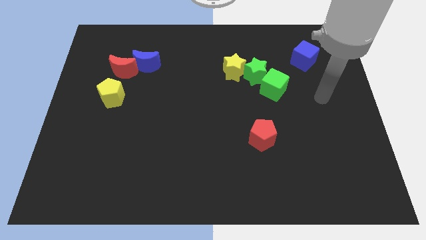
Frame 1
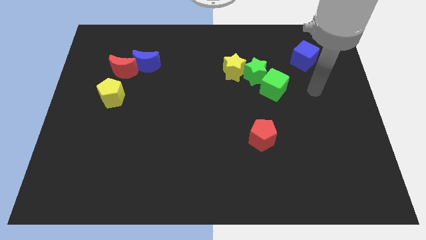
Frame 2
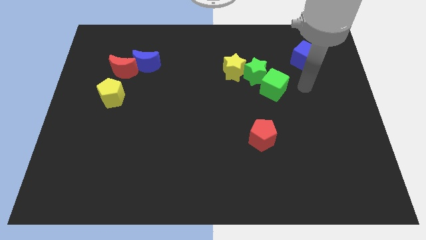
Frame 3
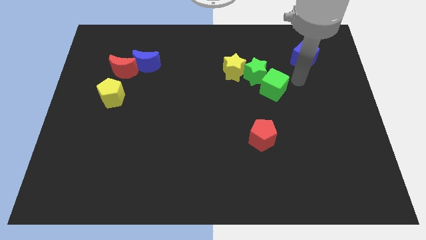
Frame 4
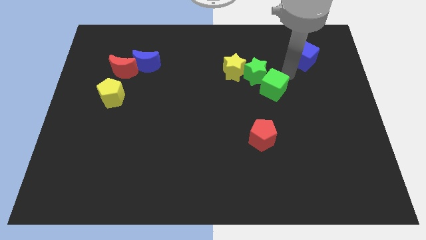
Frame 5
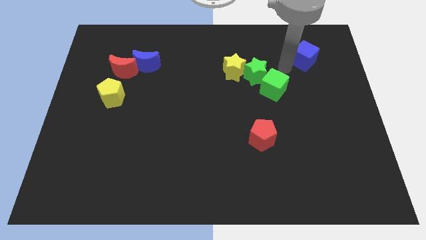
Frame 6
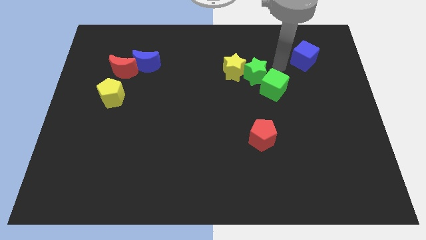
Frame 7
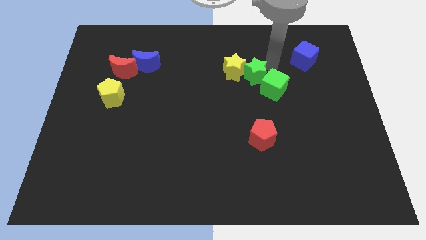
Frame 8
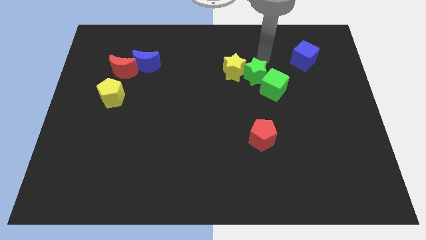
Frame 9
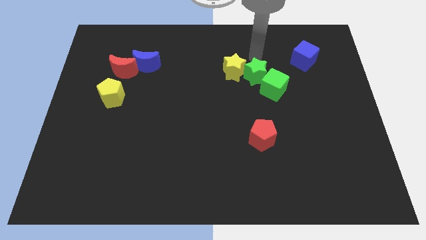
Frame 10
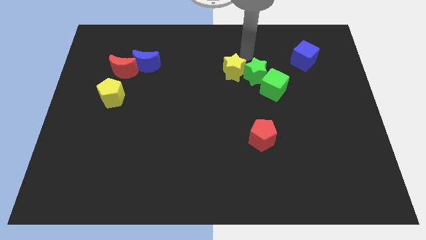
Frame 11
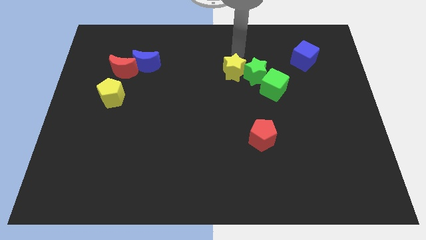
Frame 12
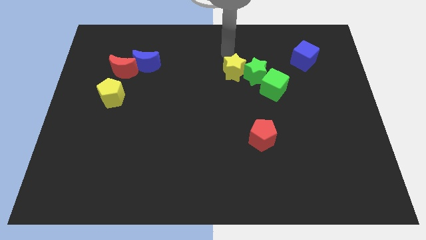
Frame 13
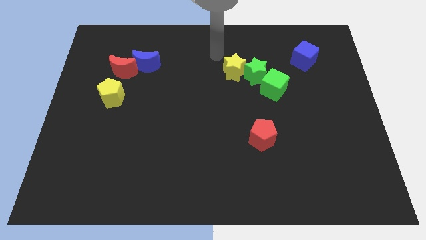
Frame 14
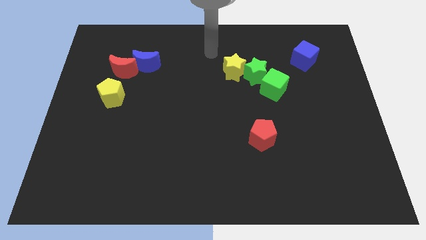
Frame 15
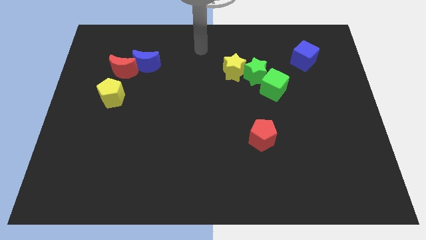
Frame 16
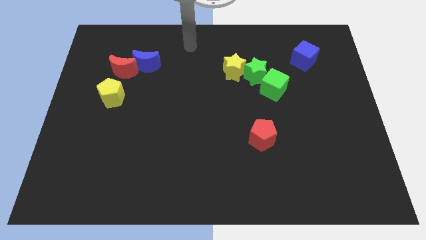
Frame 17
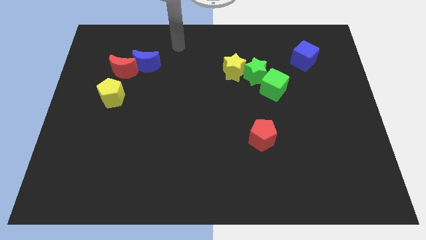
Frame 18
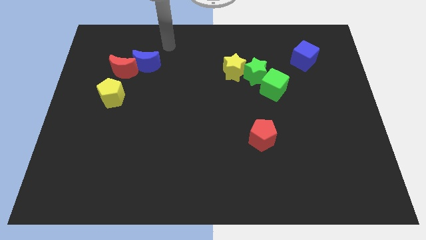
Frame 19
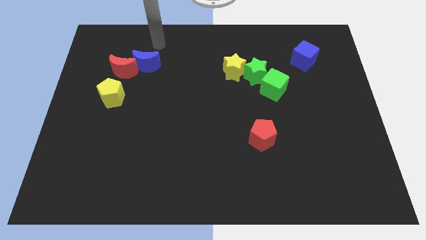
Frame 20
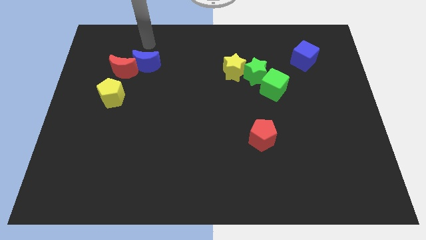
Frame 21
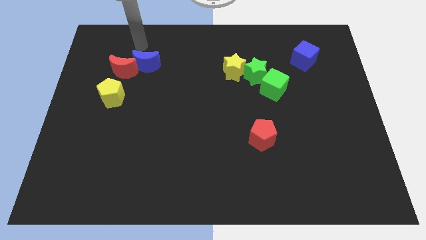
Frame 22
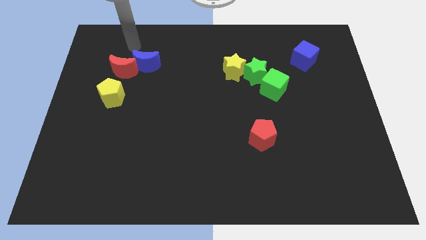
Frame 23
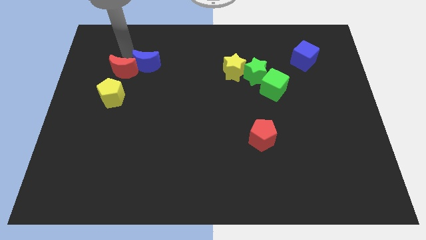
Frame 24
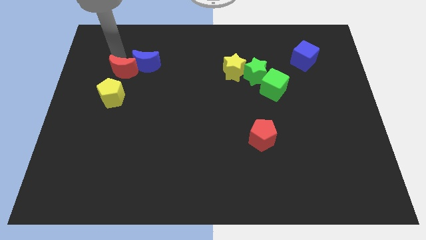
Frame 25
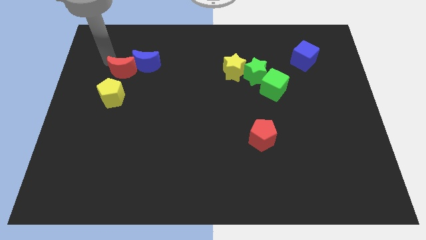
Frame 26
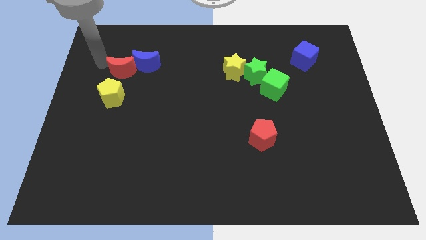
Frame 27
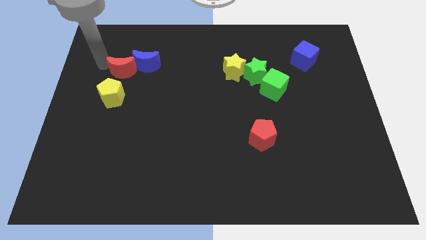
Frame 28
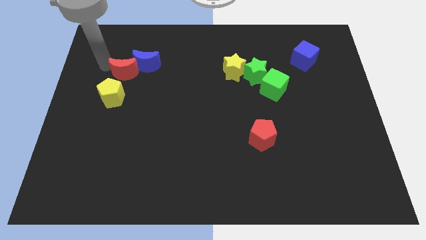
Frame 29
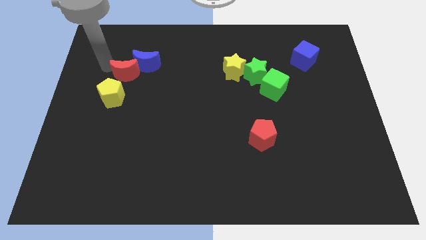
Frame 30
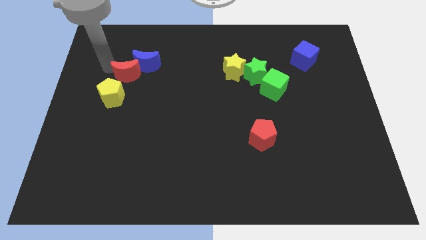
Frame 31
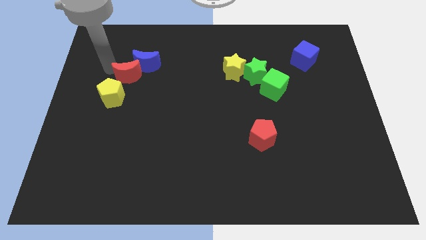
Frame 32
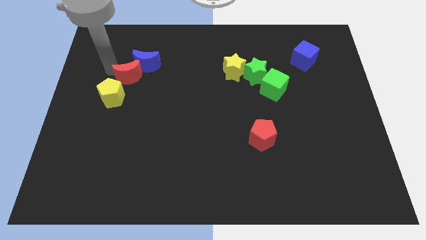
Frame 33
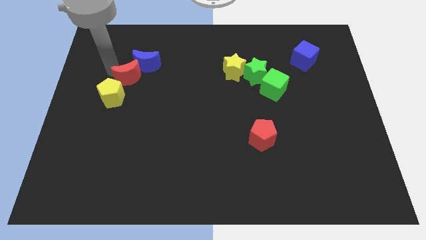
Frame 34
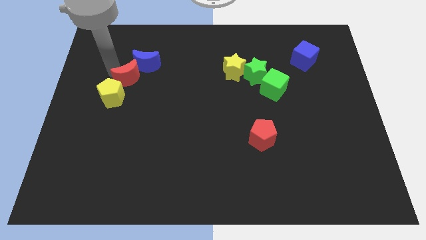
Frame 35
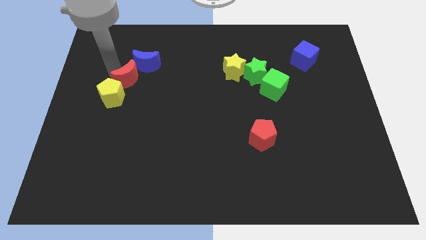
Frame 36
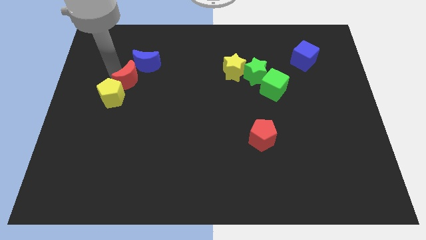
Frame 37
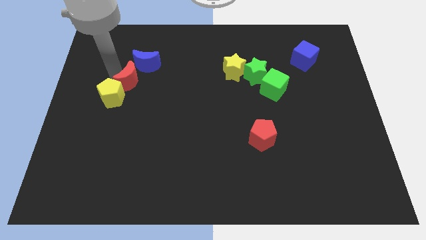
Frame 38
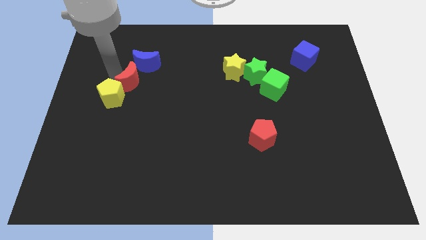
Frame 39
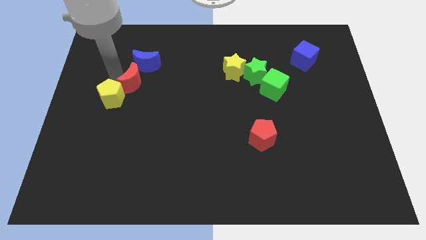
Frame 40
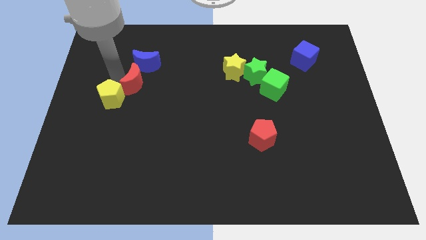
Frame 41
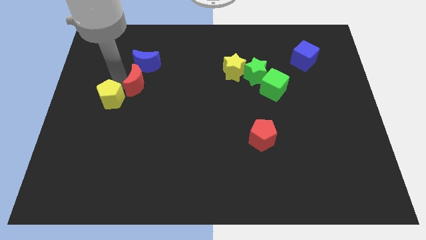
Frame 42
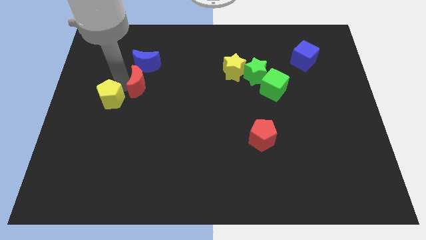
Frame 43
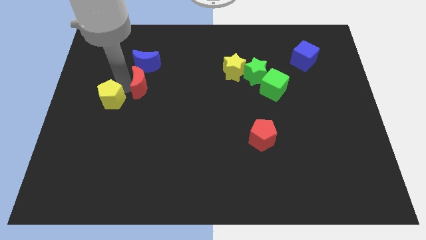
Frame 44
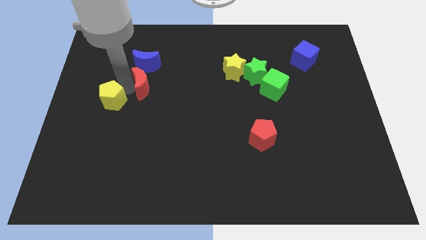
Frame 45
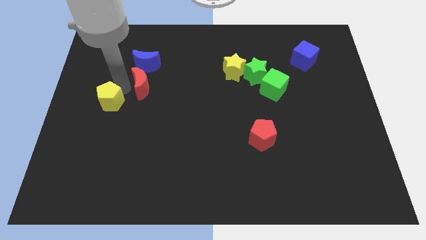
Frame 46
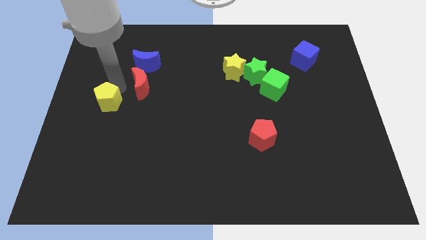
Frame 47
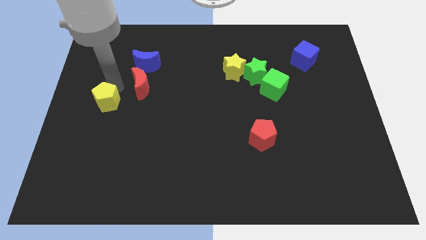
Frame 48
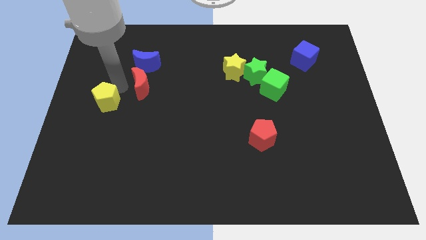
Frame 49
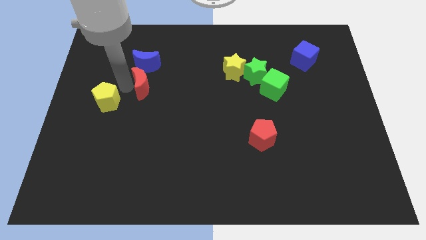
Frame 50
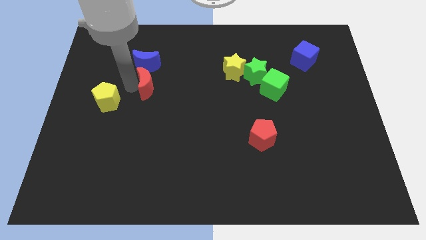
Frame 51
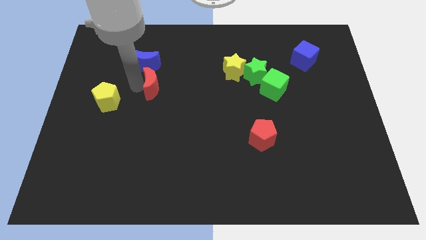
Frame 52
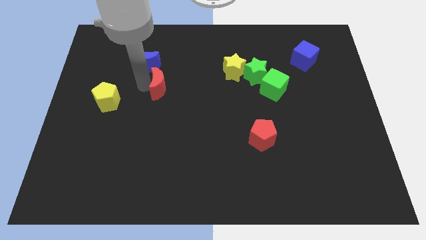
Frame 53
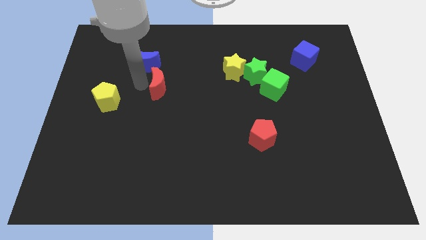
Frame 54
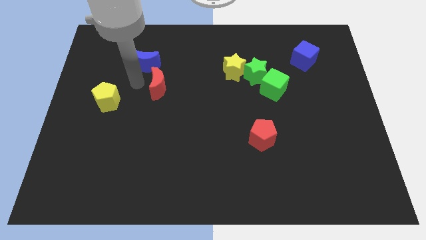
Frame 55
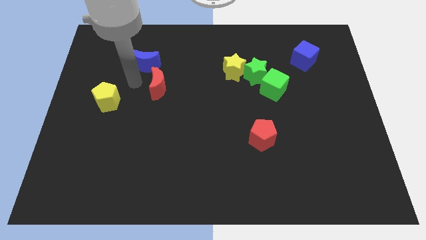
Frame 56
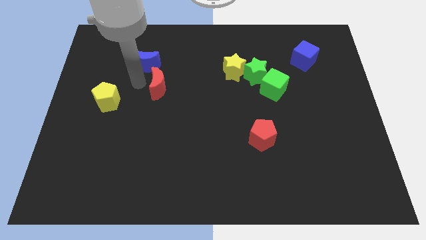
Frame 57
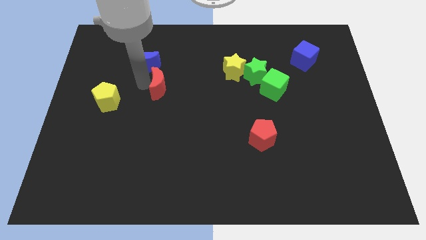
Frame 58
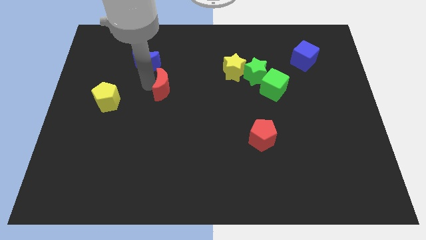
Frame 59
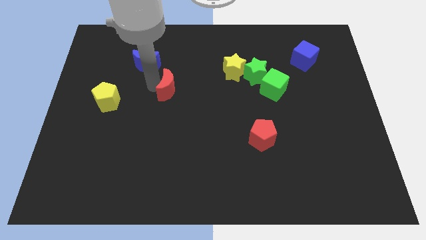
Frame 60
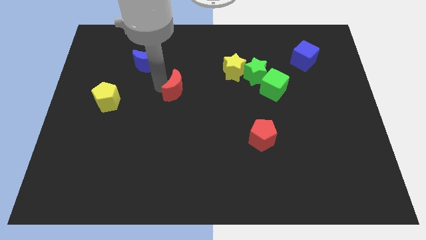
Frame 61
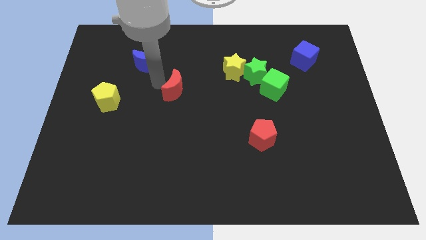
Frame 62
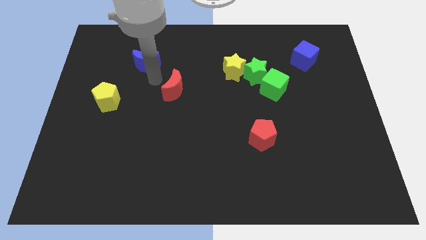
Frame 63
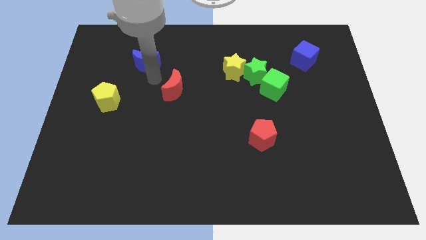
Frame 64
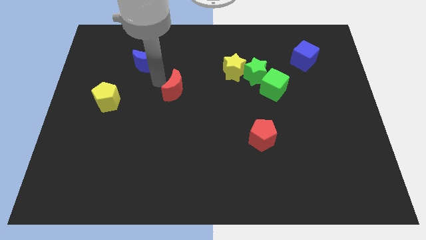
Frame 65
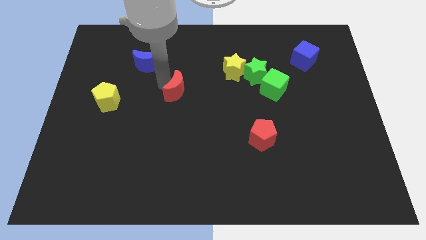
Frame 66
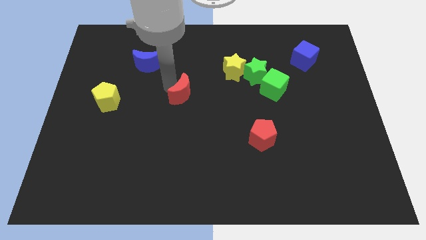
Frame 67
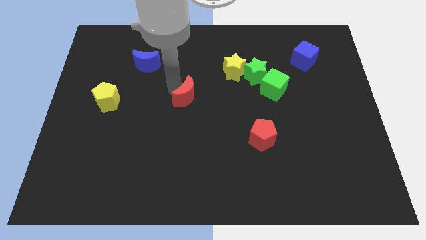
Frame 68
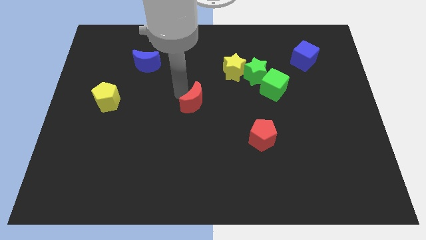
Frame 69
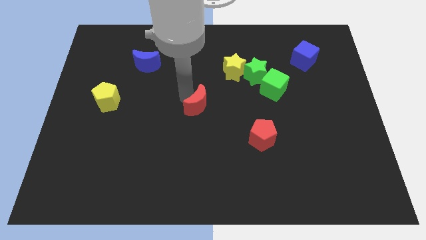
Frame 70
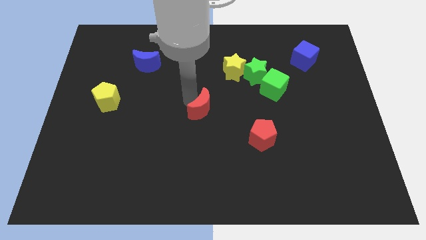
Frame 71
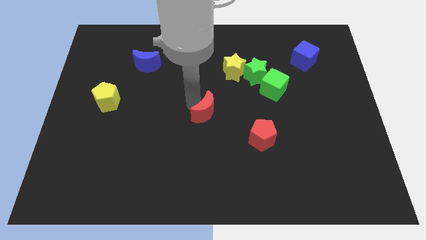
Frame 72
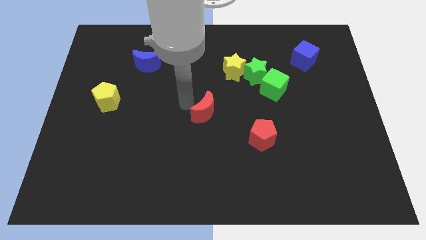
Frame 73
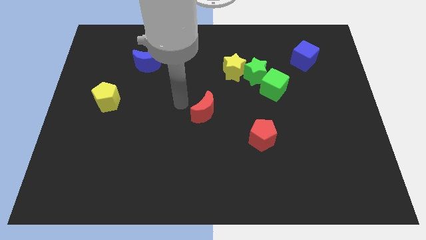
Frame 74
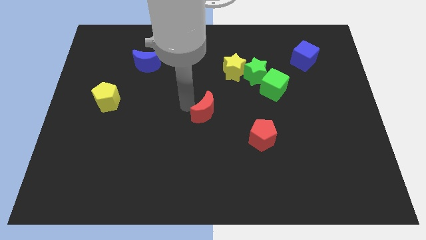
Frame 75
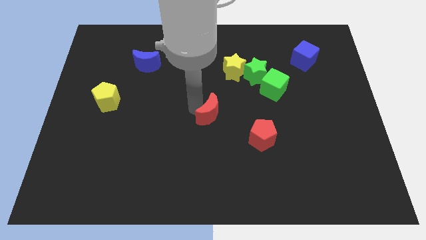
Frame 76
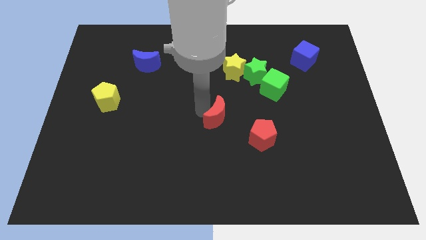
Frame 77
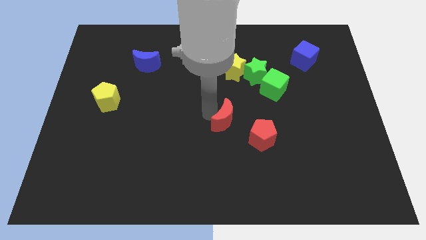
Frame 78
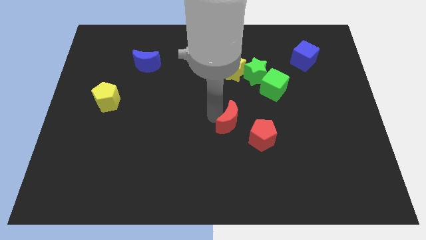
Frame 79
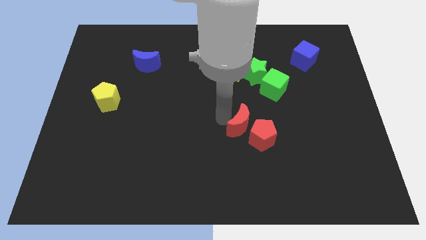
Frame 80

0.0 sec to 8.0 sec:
slide the red moon towards the red pentagon

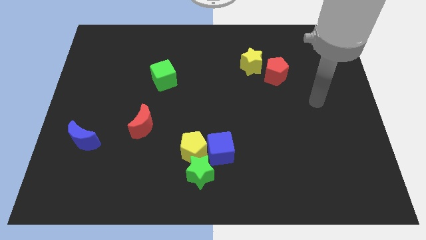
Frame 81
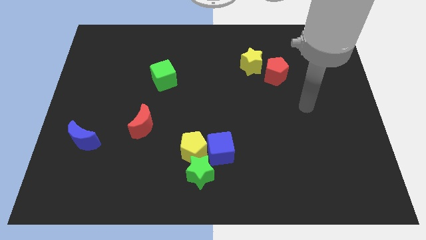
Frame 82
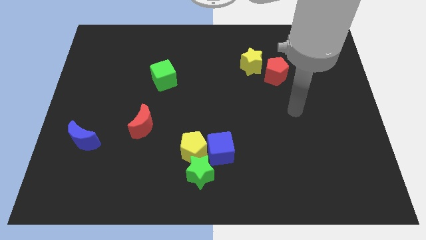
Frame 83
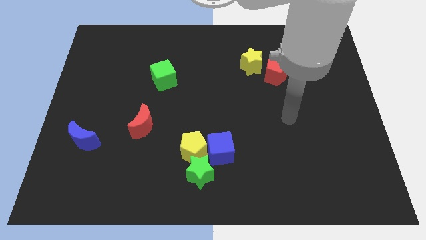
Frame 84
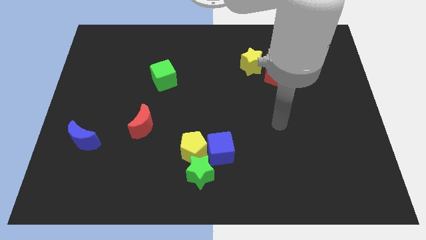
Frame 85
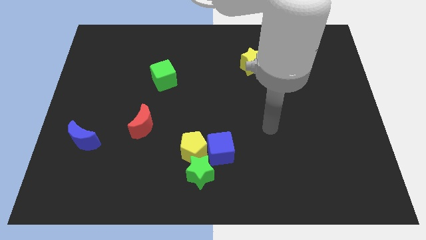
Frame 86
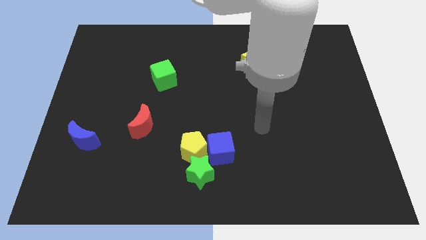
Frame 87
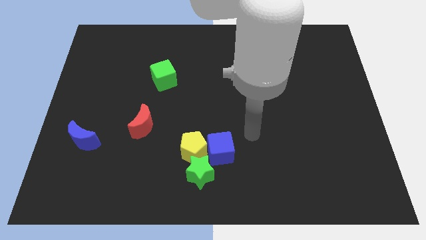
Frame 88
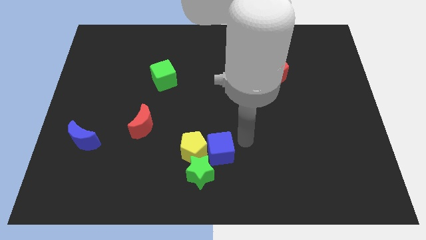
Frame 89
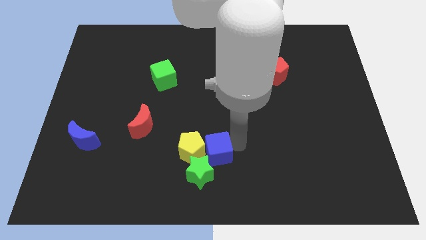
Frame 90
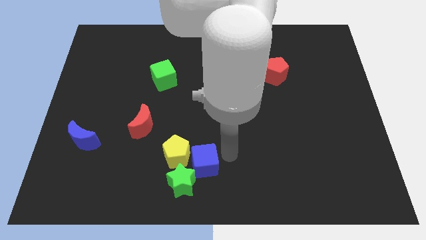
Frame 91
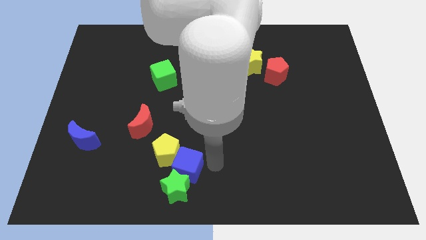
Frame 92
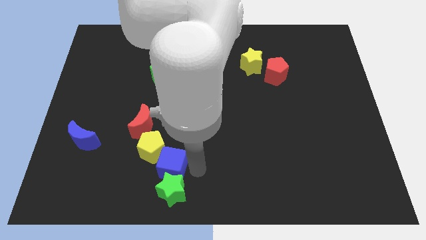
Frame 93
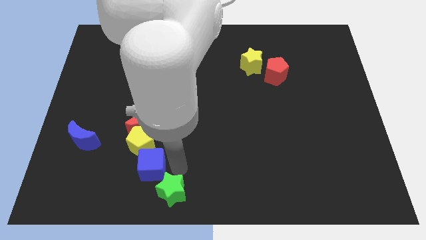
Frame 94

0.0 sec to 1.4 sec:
push the yellow pentagon next to the red moon
